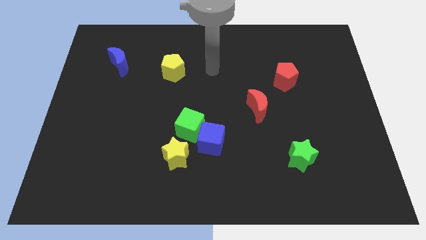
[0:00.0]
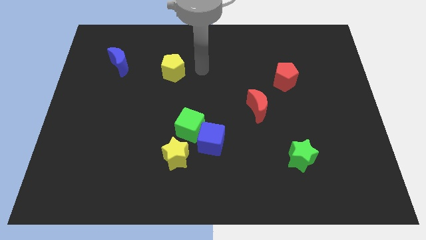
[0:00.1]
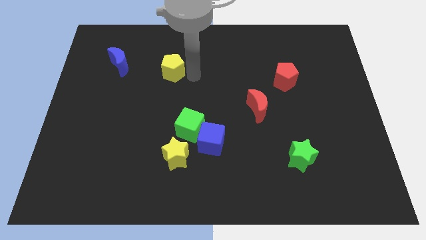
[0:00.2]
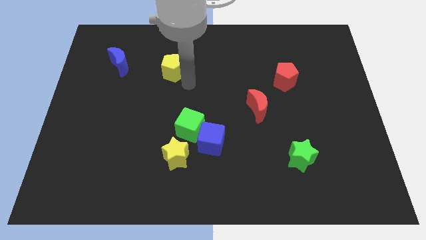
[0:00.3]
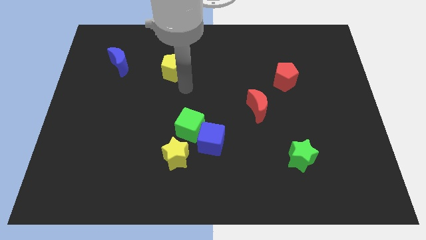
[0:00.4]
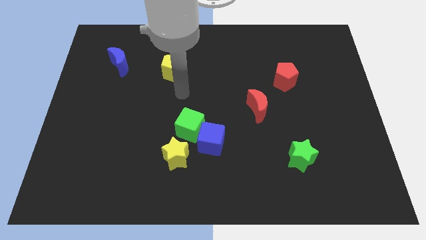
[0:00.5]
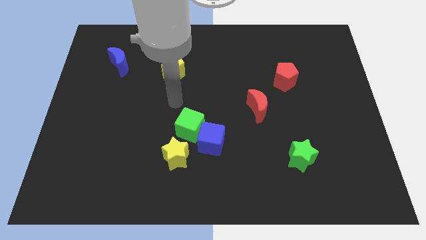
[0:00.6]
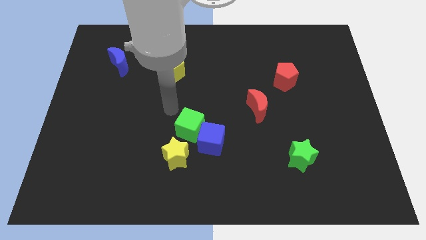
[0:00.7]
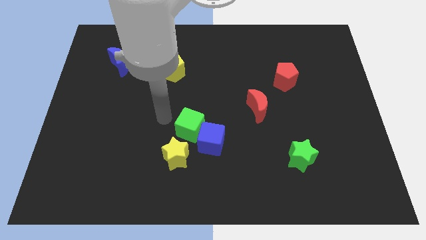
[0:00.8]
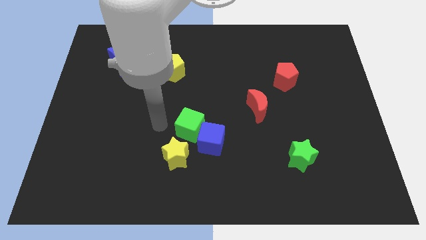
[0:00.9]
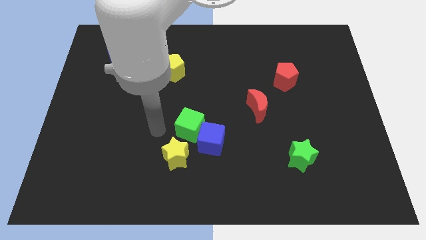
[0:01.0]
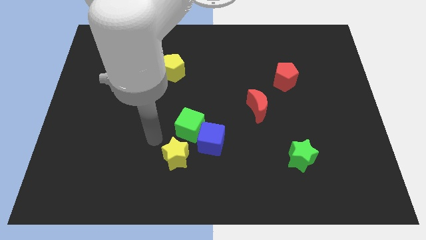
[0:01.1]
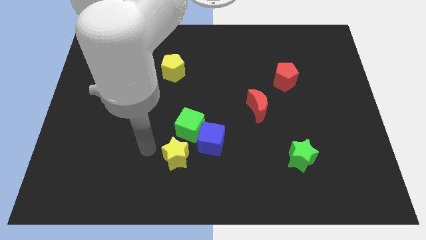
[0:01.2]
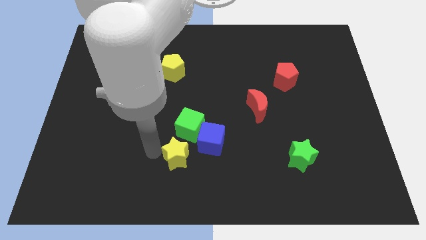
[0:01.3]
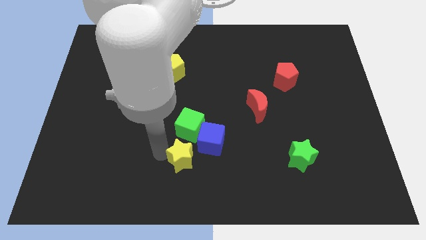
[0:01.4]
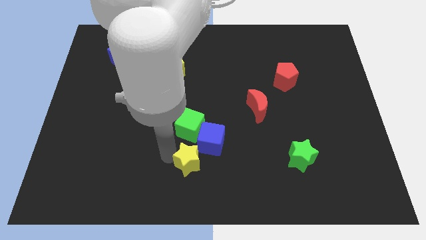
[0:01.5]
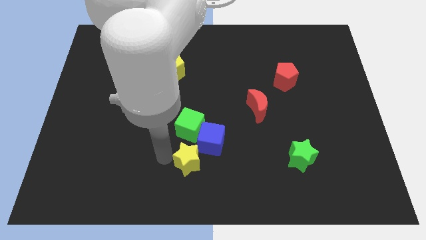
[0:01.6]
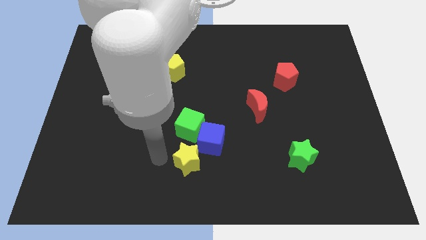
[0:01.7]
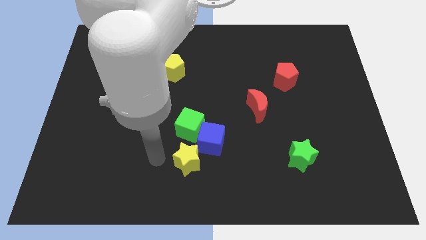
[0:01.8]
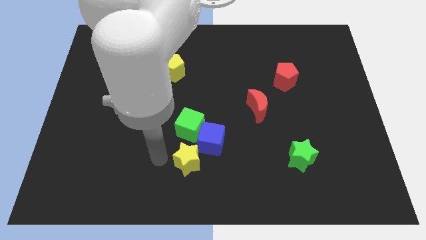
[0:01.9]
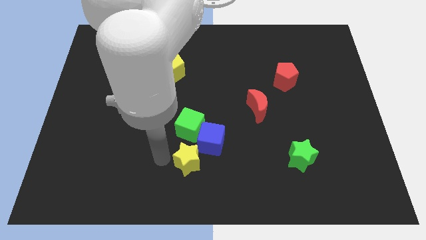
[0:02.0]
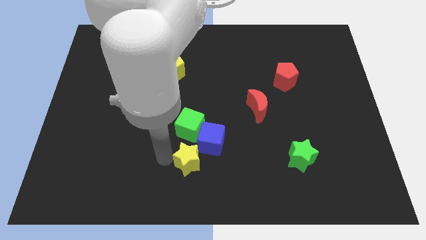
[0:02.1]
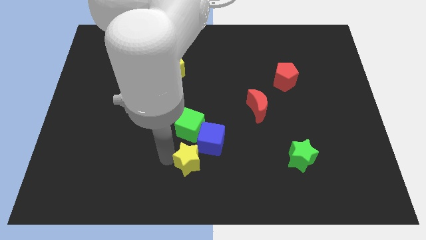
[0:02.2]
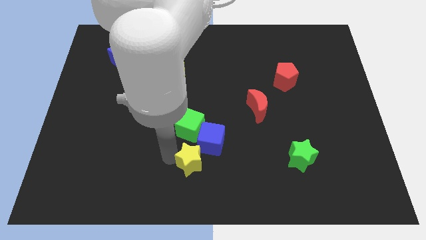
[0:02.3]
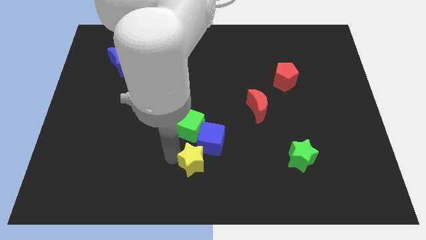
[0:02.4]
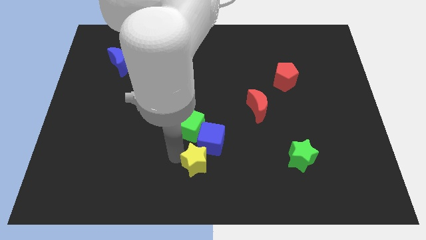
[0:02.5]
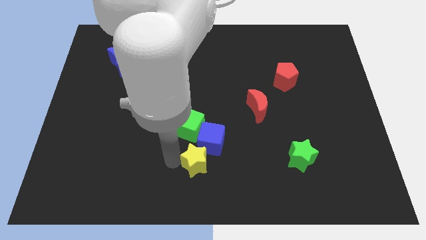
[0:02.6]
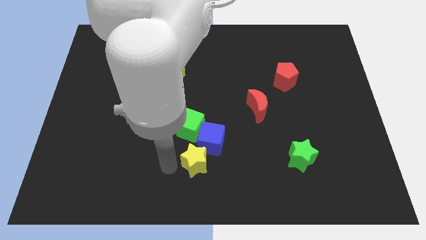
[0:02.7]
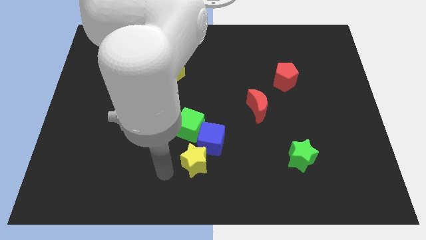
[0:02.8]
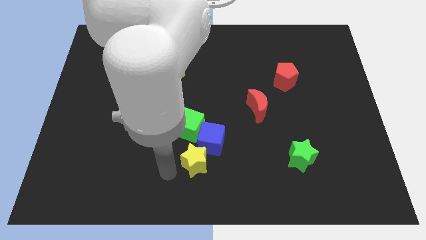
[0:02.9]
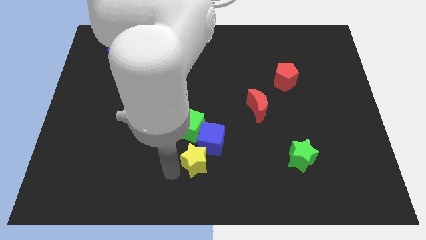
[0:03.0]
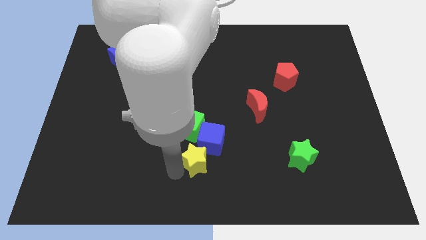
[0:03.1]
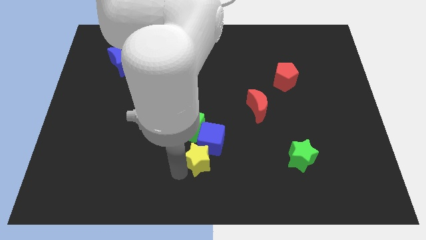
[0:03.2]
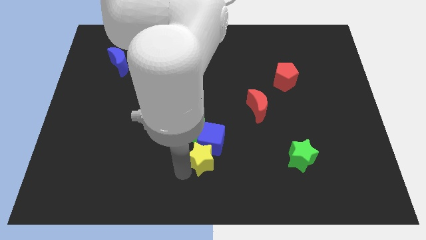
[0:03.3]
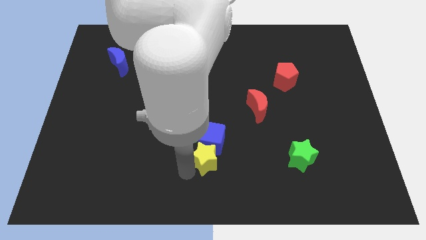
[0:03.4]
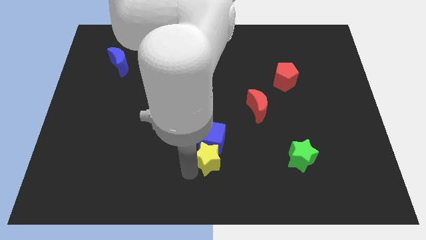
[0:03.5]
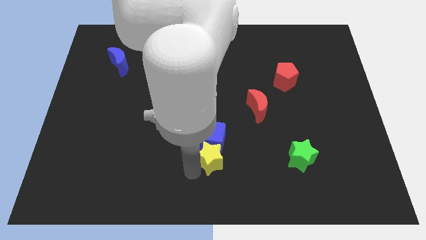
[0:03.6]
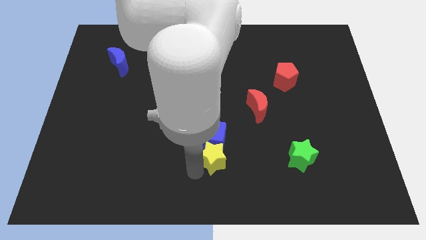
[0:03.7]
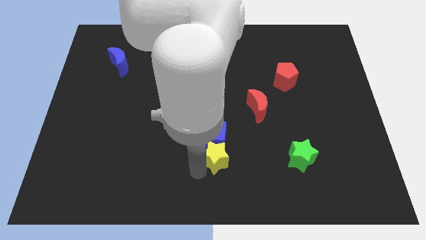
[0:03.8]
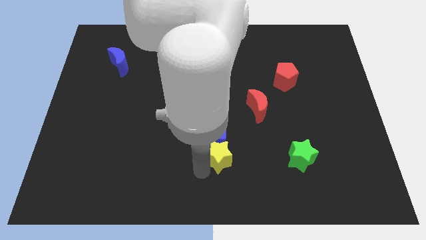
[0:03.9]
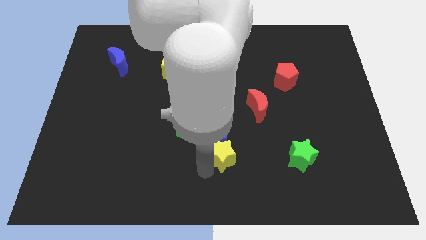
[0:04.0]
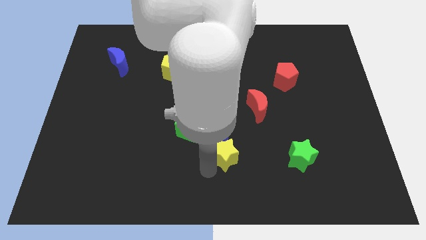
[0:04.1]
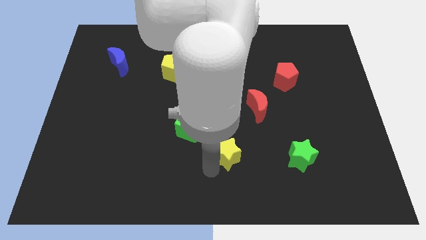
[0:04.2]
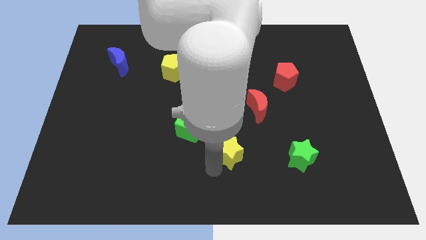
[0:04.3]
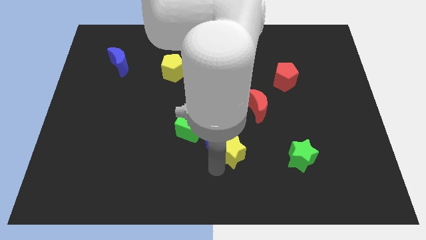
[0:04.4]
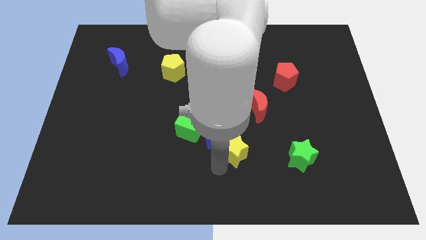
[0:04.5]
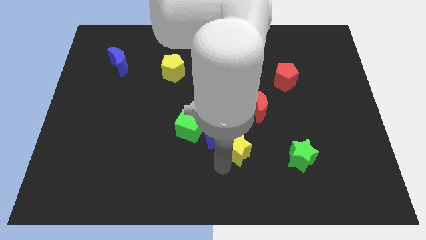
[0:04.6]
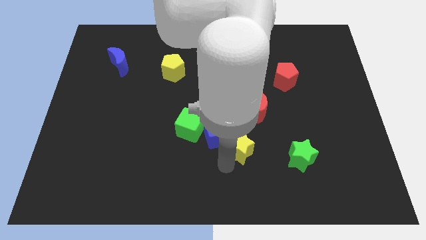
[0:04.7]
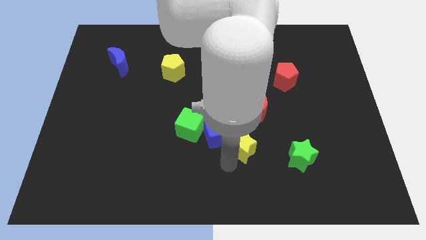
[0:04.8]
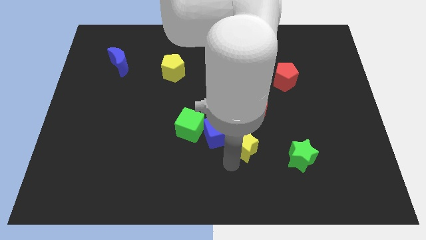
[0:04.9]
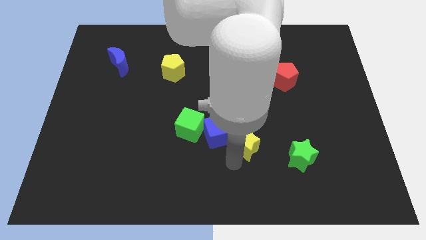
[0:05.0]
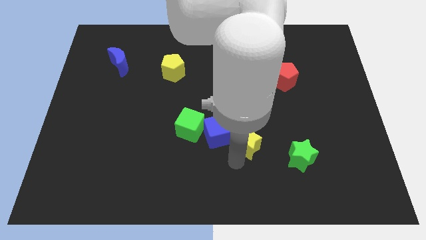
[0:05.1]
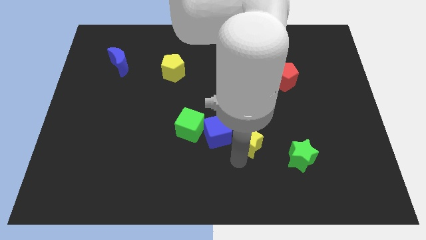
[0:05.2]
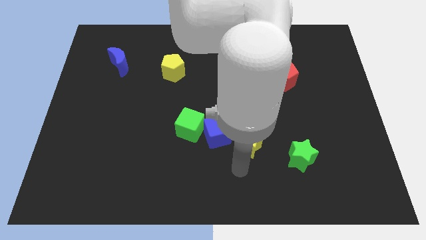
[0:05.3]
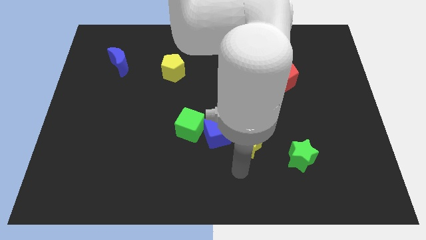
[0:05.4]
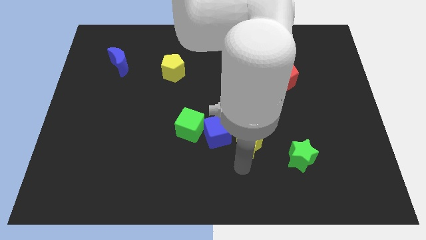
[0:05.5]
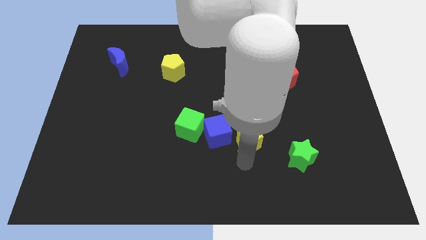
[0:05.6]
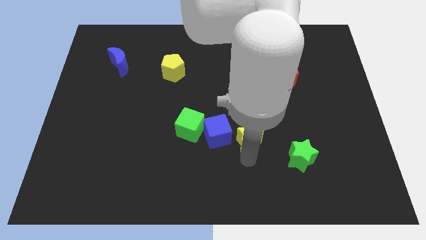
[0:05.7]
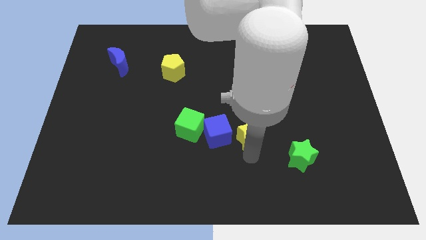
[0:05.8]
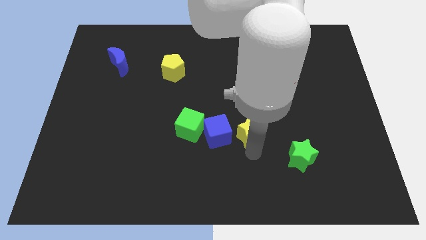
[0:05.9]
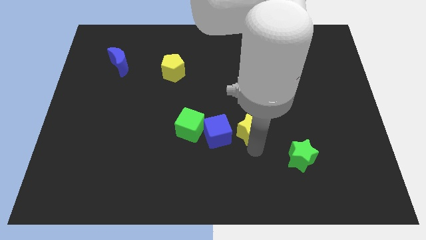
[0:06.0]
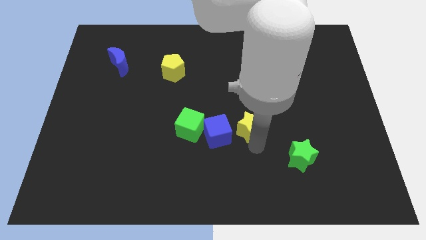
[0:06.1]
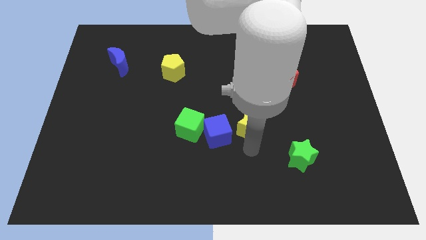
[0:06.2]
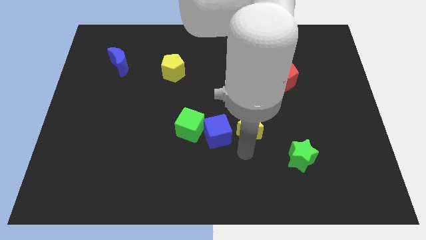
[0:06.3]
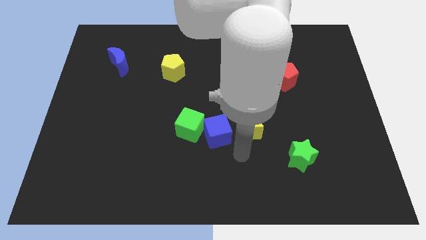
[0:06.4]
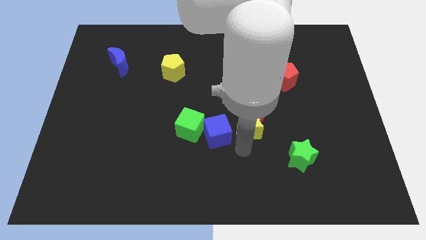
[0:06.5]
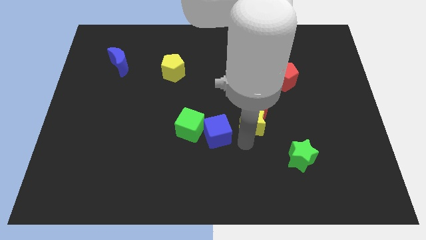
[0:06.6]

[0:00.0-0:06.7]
move the yellow star next to the red moon
